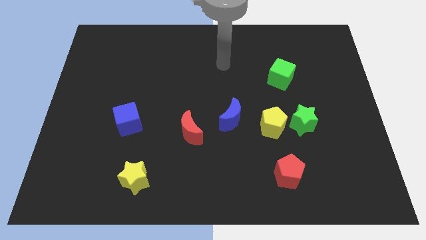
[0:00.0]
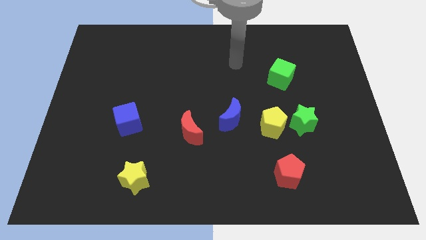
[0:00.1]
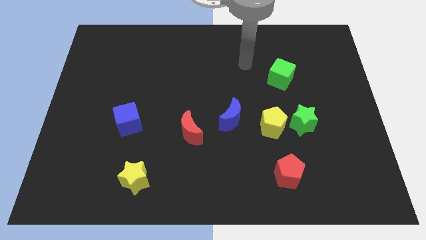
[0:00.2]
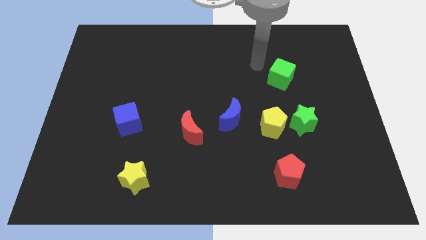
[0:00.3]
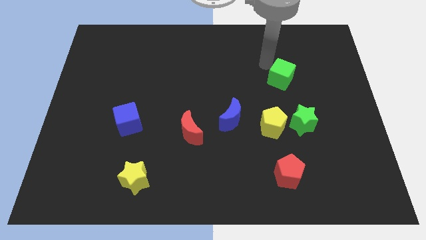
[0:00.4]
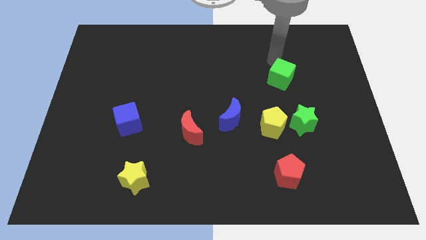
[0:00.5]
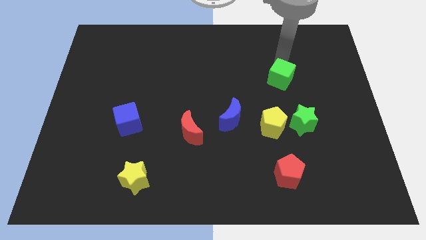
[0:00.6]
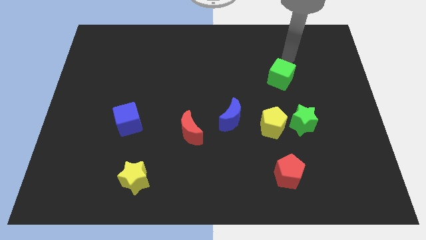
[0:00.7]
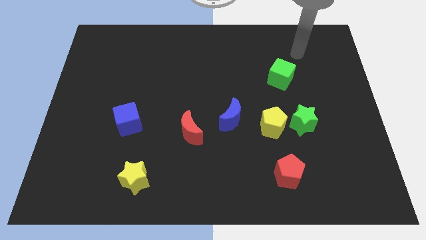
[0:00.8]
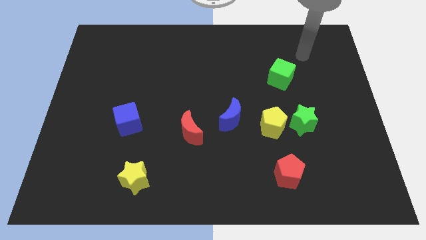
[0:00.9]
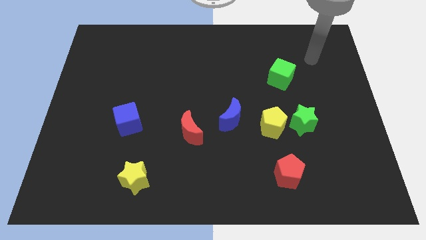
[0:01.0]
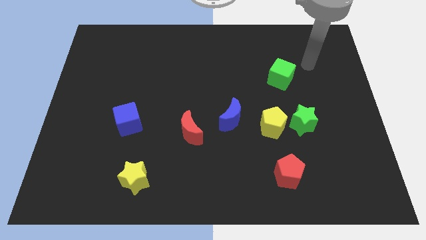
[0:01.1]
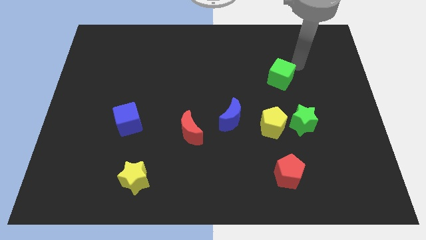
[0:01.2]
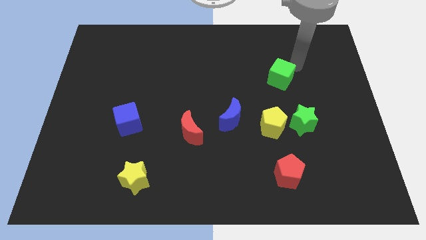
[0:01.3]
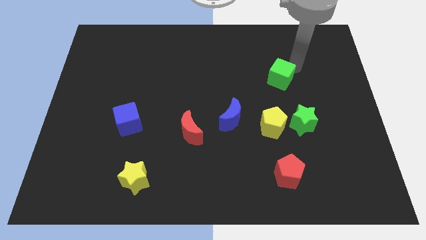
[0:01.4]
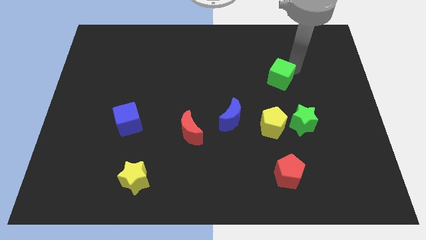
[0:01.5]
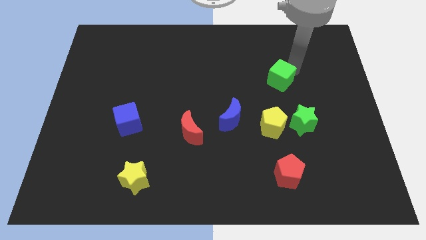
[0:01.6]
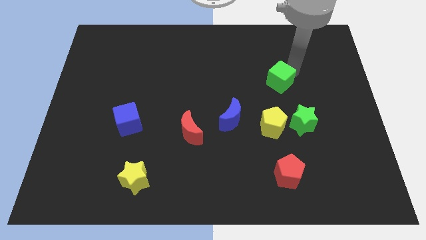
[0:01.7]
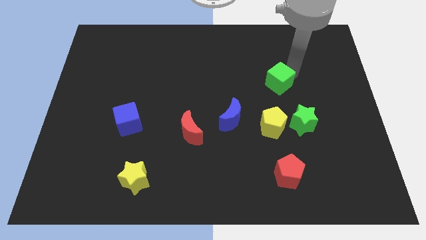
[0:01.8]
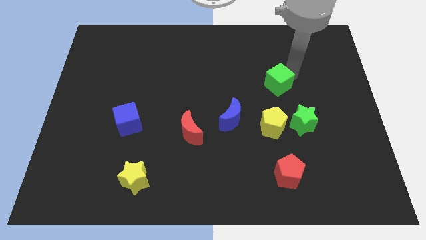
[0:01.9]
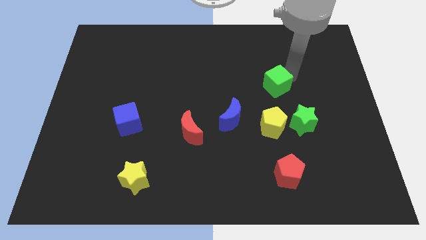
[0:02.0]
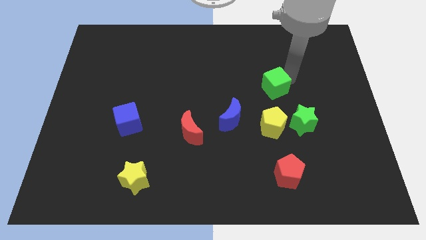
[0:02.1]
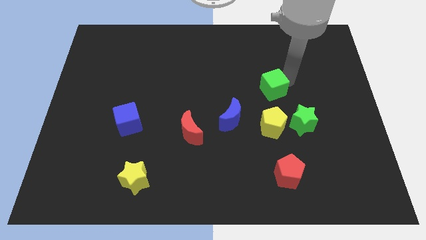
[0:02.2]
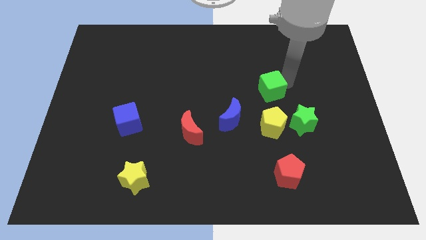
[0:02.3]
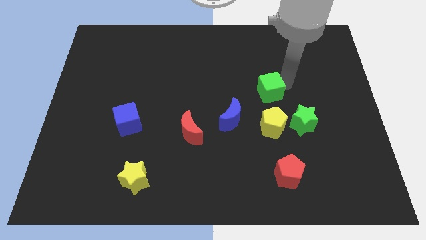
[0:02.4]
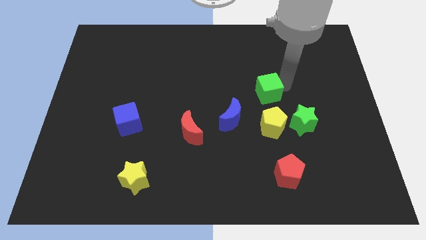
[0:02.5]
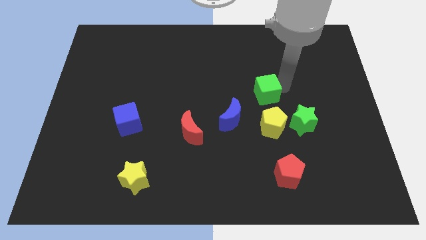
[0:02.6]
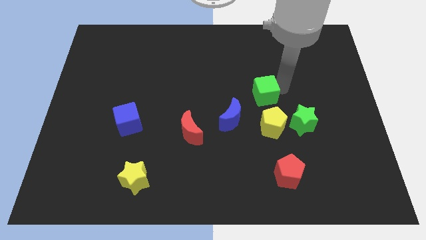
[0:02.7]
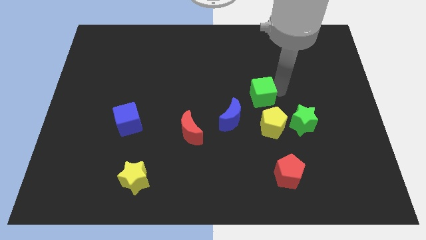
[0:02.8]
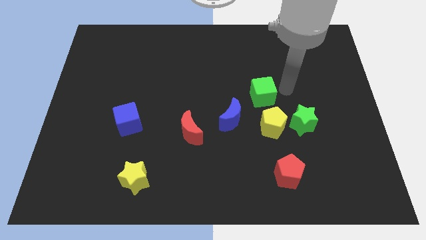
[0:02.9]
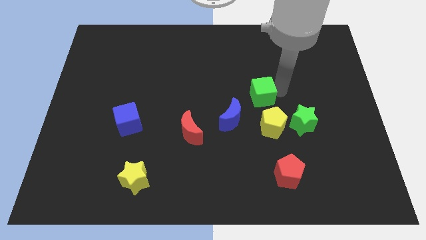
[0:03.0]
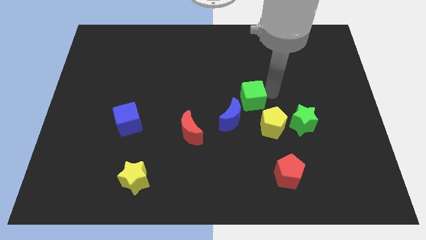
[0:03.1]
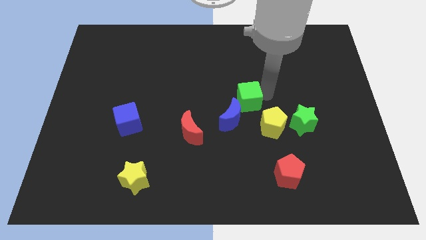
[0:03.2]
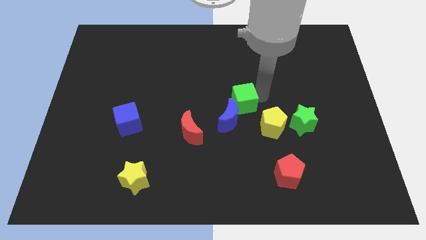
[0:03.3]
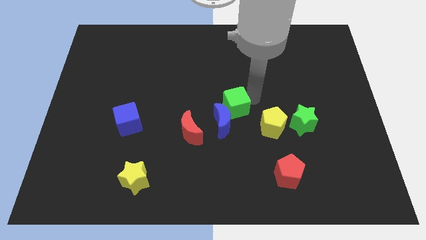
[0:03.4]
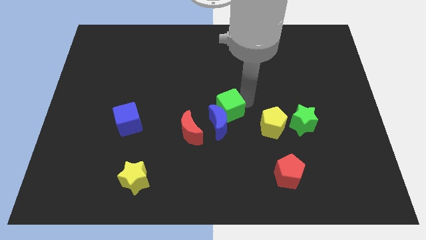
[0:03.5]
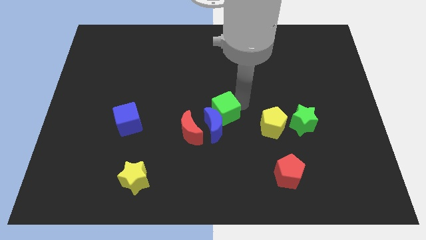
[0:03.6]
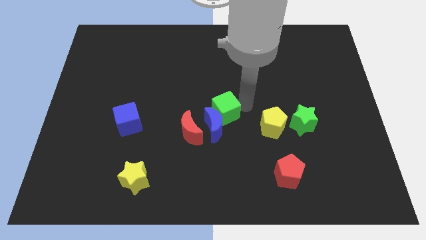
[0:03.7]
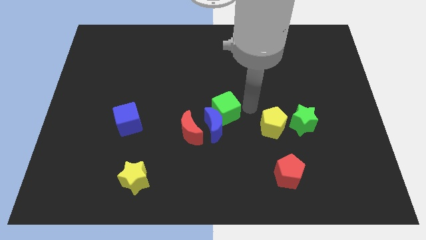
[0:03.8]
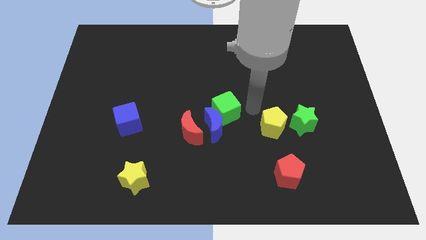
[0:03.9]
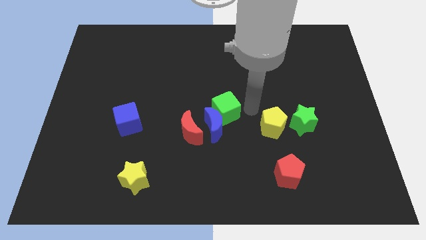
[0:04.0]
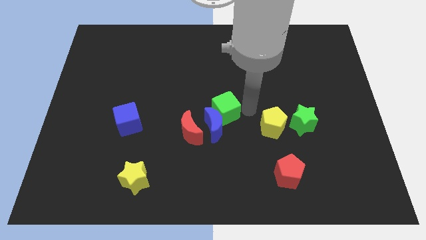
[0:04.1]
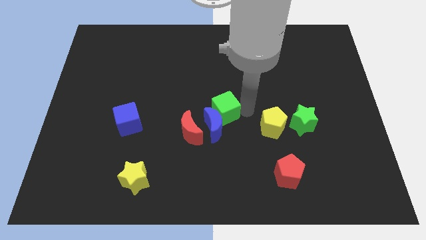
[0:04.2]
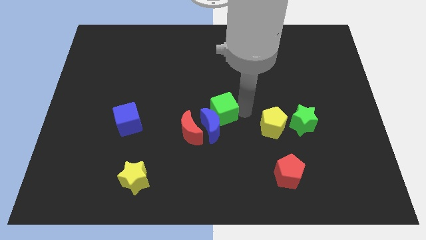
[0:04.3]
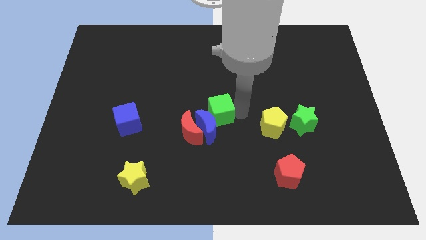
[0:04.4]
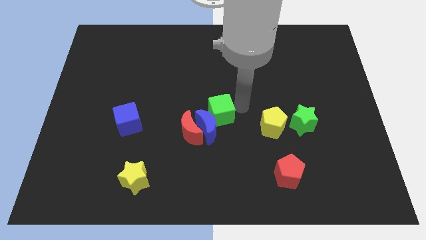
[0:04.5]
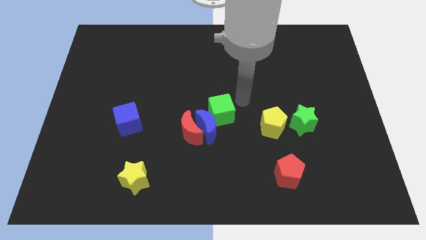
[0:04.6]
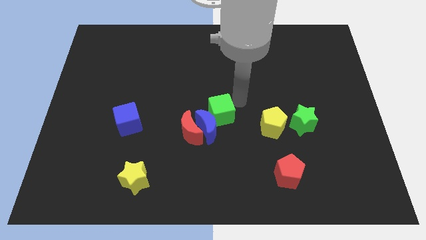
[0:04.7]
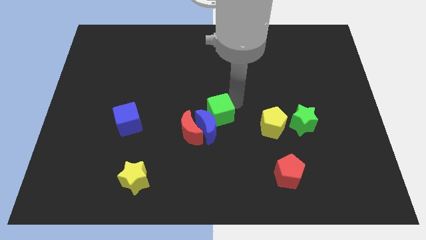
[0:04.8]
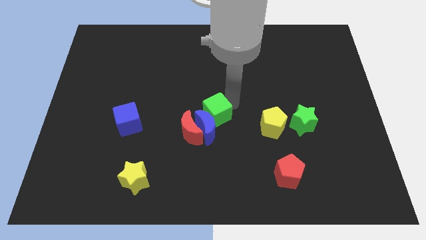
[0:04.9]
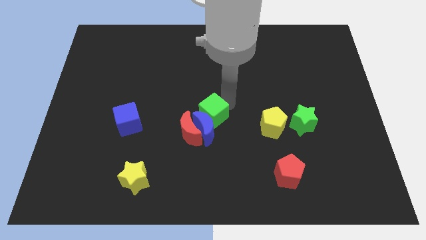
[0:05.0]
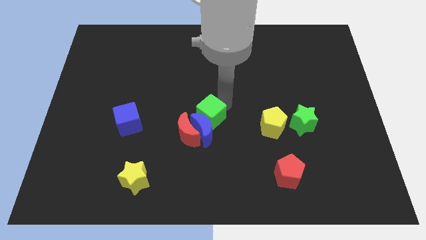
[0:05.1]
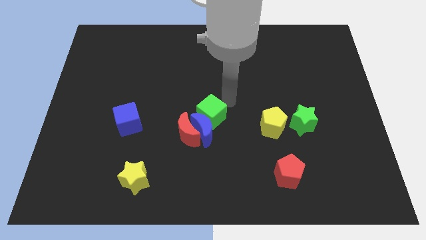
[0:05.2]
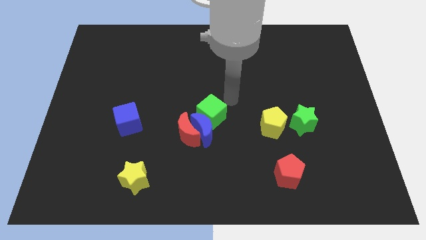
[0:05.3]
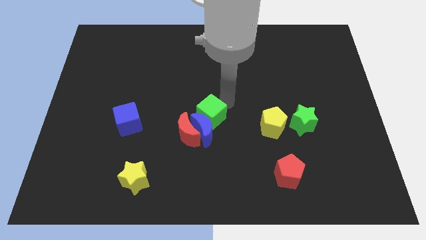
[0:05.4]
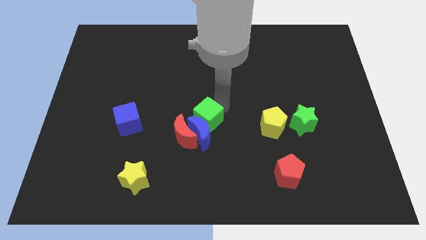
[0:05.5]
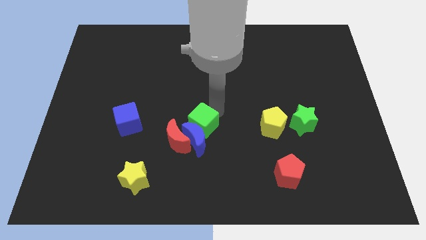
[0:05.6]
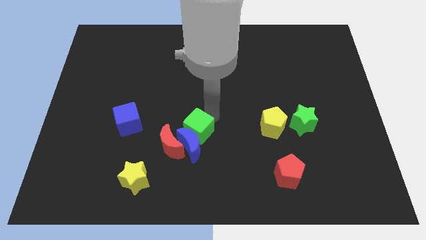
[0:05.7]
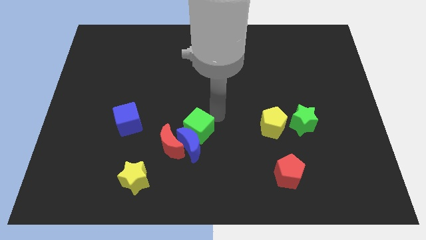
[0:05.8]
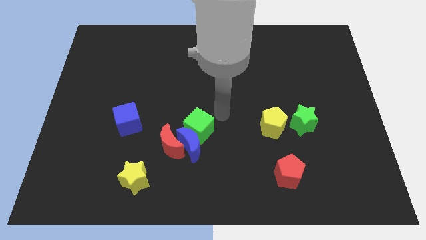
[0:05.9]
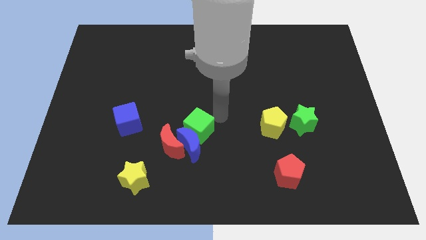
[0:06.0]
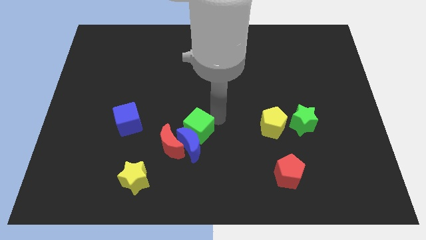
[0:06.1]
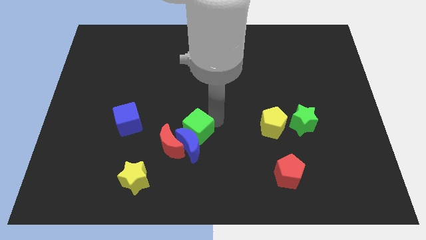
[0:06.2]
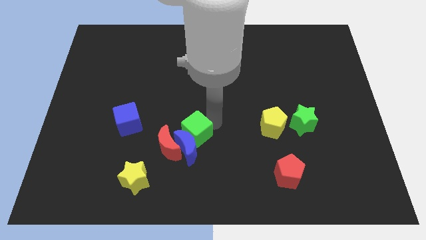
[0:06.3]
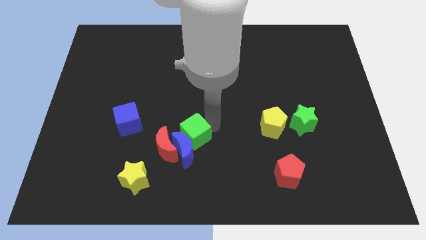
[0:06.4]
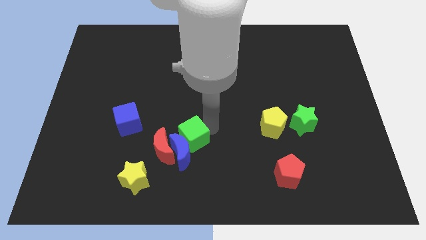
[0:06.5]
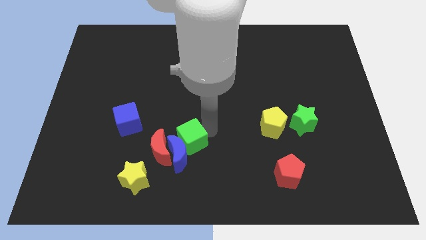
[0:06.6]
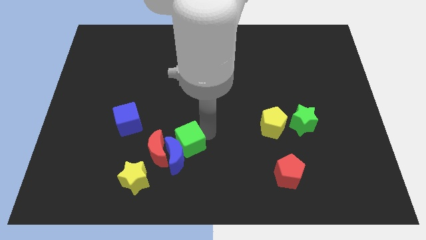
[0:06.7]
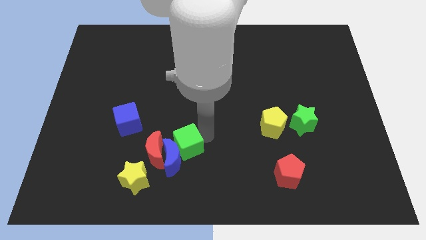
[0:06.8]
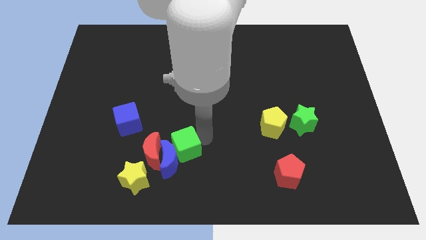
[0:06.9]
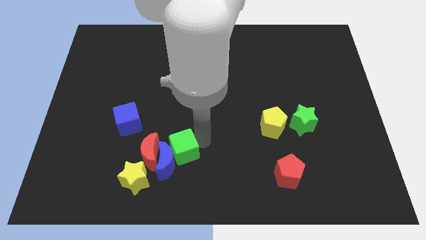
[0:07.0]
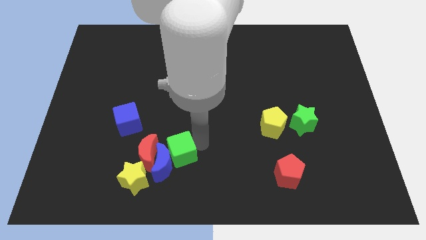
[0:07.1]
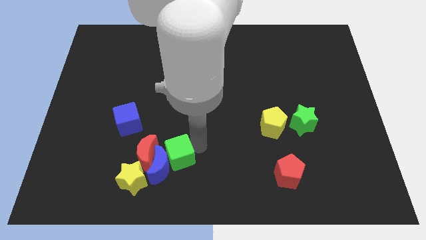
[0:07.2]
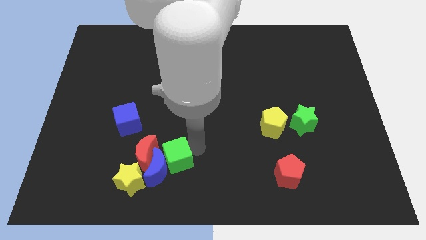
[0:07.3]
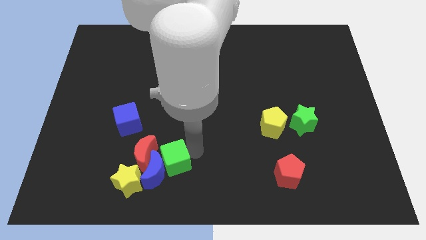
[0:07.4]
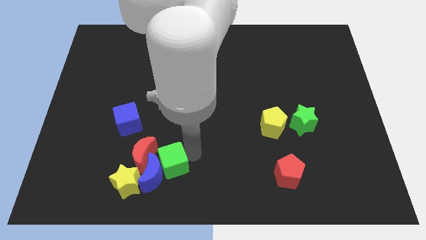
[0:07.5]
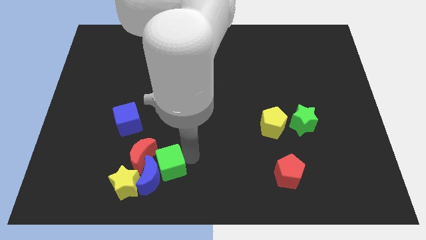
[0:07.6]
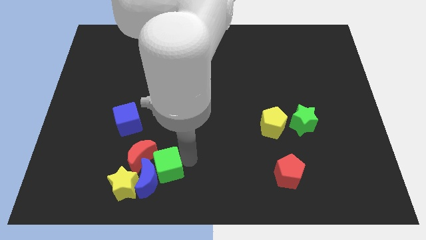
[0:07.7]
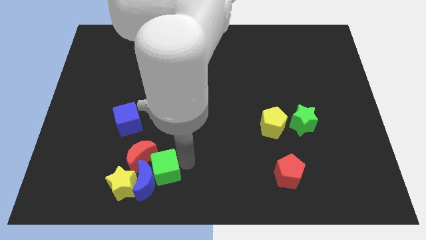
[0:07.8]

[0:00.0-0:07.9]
put the green cube close to the red moon

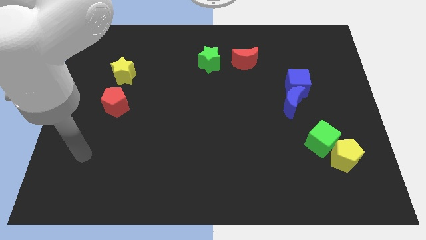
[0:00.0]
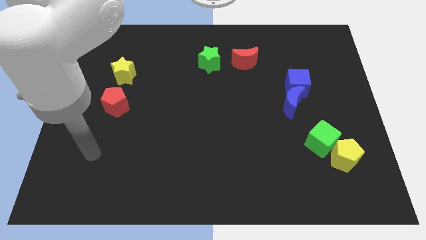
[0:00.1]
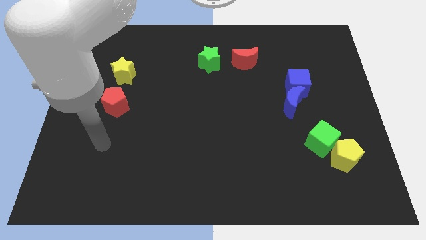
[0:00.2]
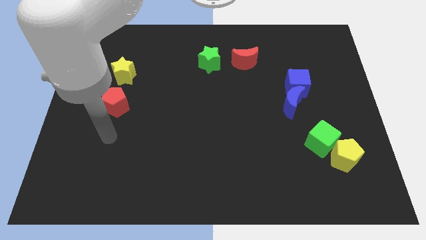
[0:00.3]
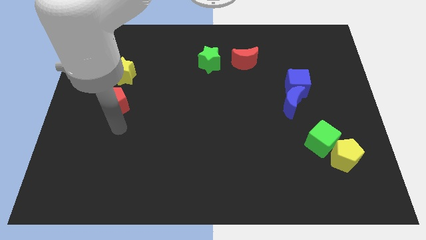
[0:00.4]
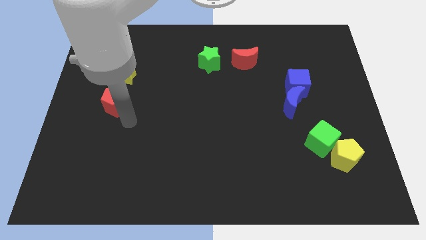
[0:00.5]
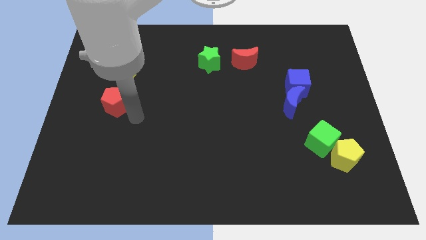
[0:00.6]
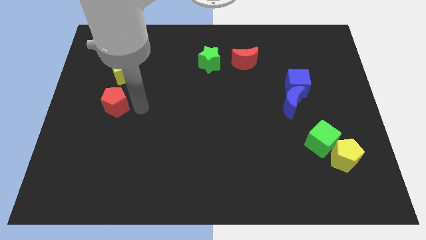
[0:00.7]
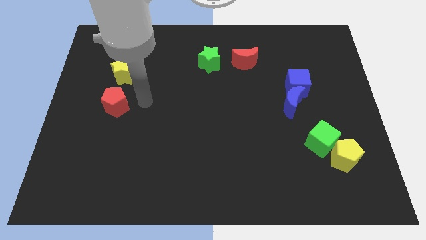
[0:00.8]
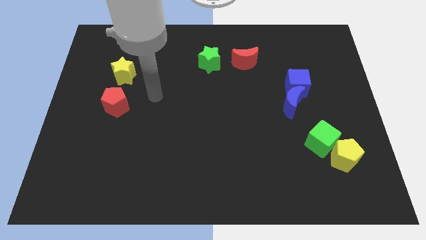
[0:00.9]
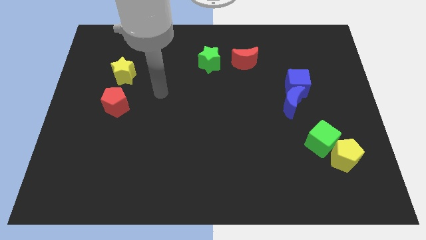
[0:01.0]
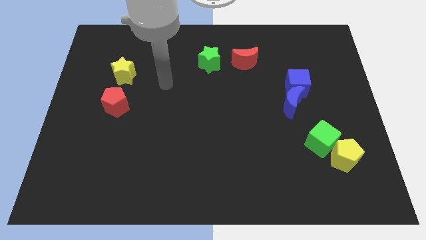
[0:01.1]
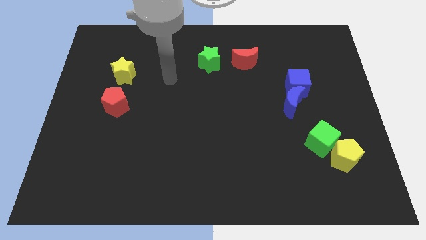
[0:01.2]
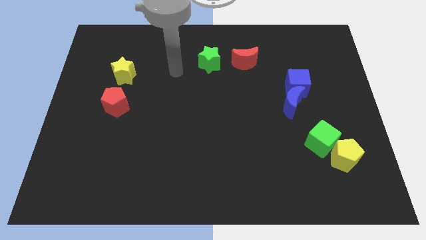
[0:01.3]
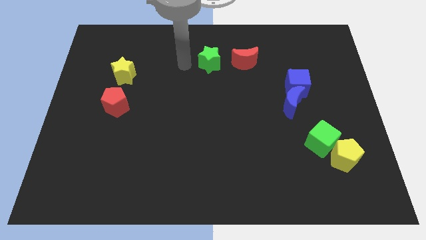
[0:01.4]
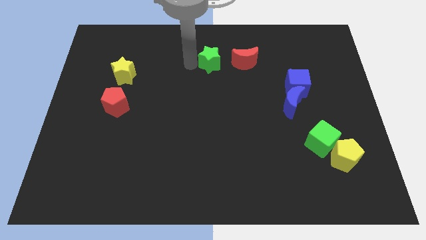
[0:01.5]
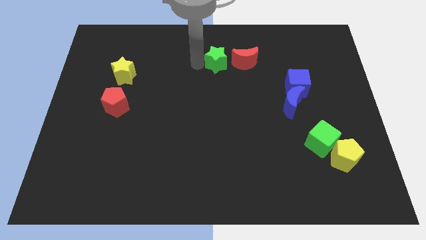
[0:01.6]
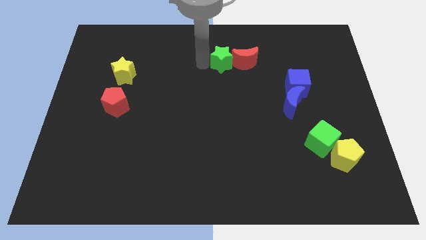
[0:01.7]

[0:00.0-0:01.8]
move the green star close to the red moon
